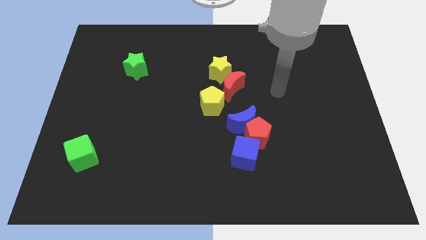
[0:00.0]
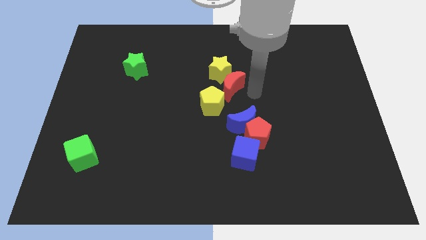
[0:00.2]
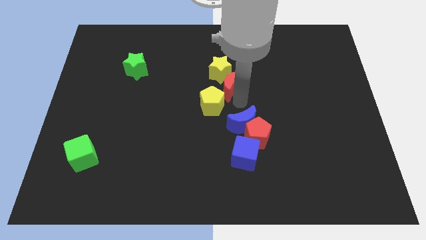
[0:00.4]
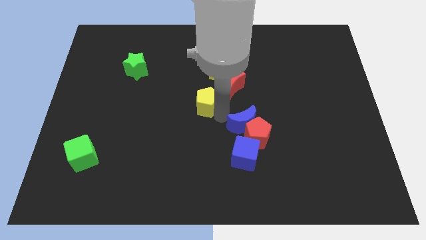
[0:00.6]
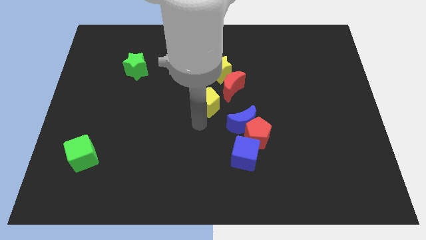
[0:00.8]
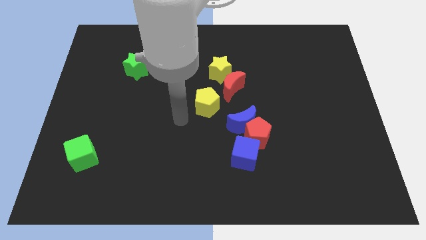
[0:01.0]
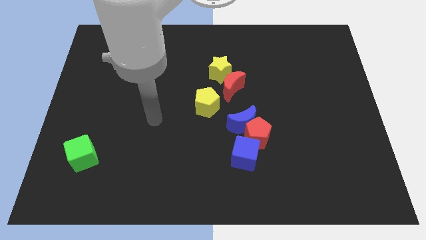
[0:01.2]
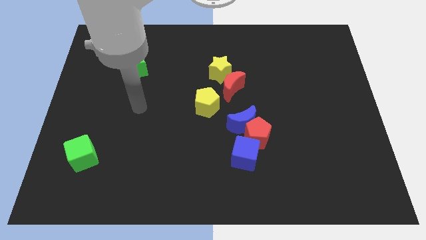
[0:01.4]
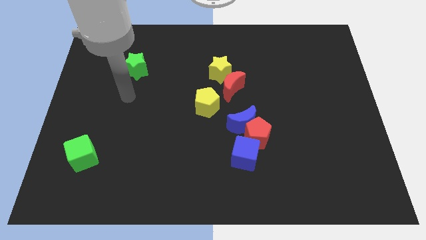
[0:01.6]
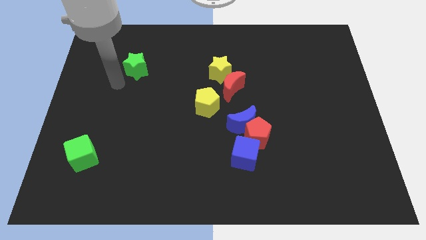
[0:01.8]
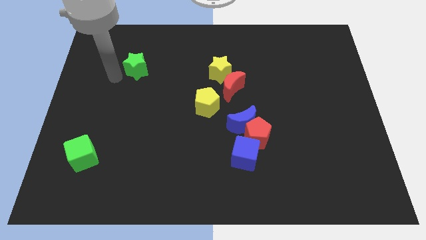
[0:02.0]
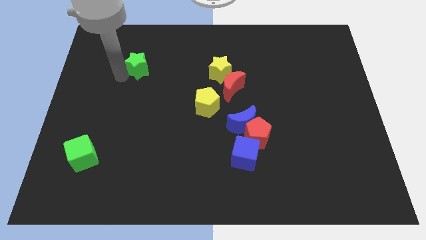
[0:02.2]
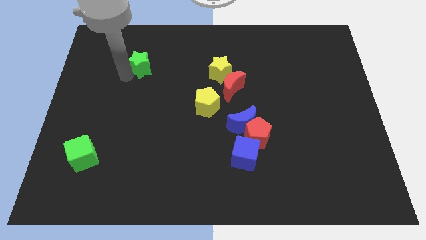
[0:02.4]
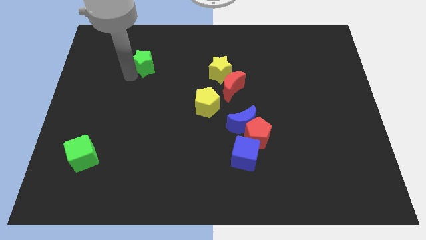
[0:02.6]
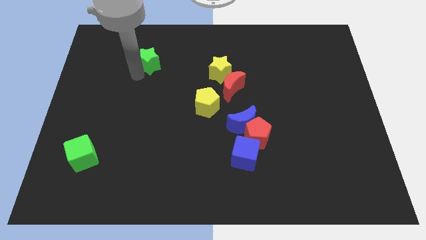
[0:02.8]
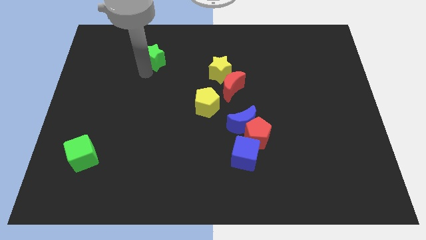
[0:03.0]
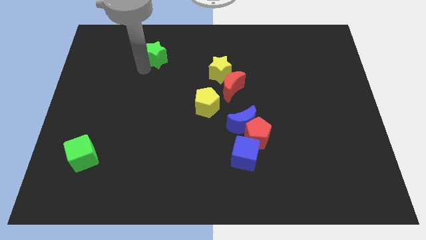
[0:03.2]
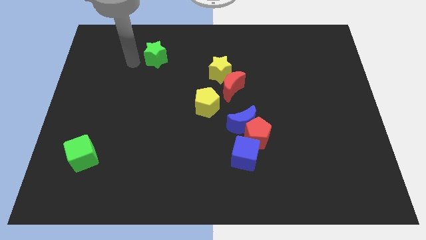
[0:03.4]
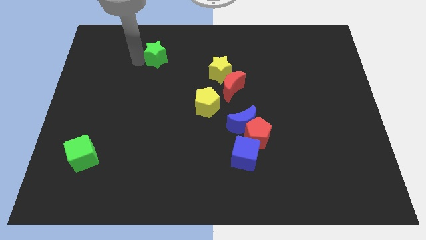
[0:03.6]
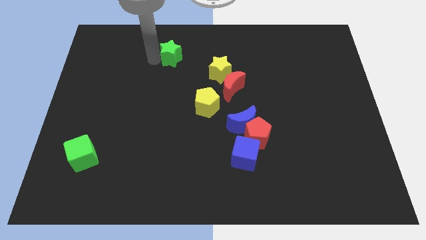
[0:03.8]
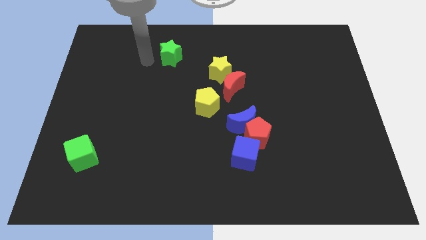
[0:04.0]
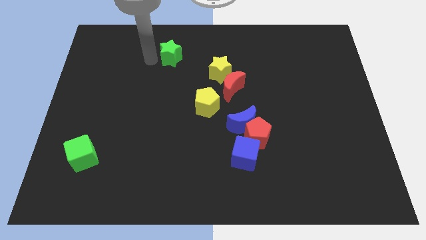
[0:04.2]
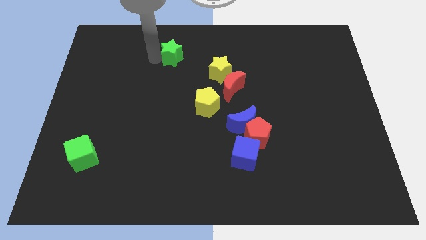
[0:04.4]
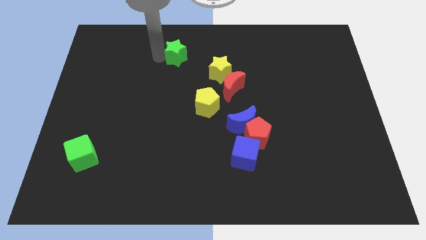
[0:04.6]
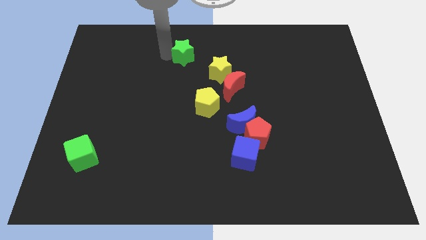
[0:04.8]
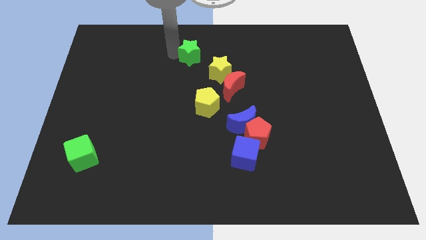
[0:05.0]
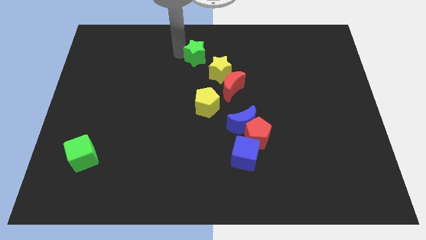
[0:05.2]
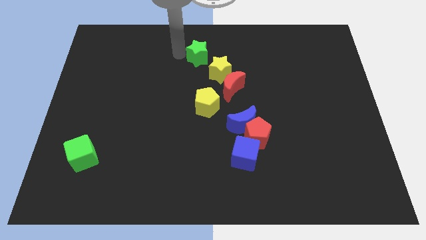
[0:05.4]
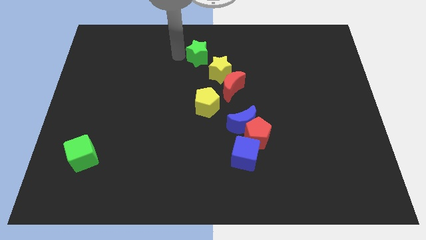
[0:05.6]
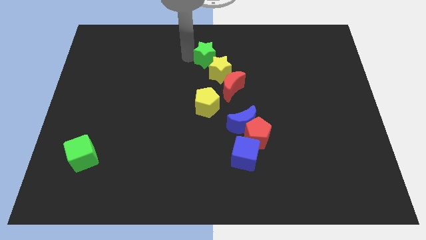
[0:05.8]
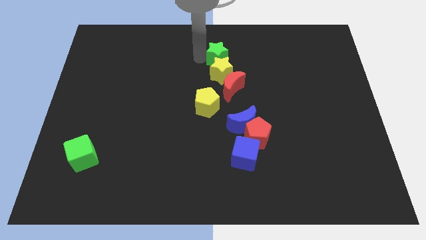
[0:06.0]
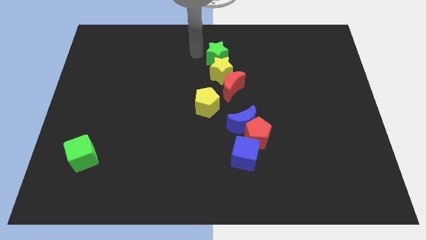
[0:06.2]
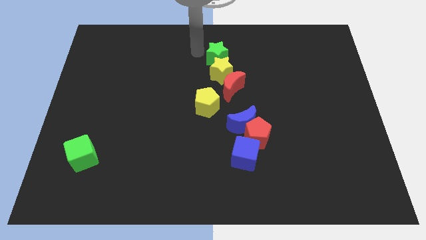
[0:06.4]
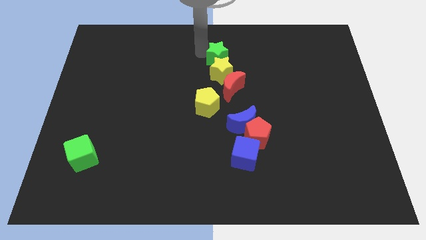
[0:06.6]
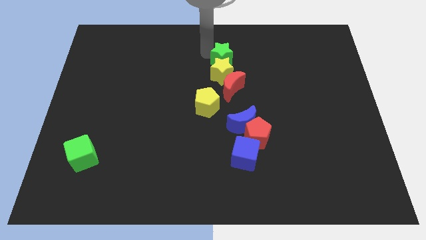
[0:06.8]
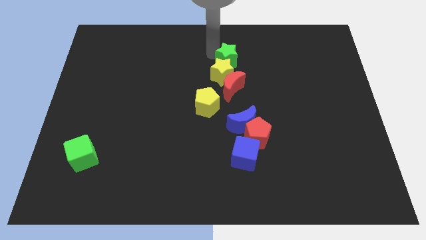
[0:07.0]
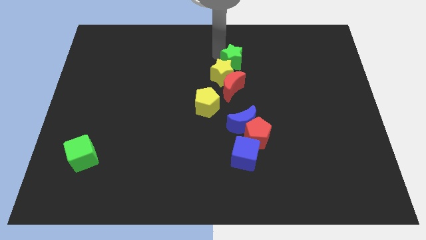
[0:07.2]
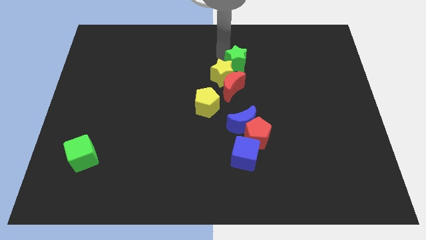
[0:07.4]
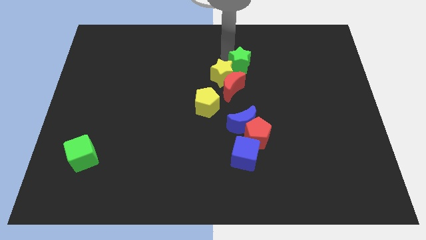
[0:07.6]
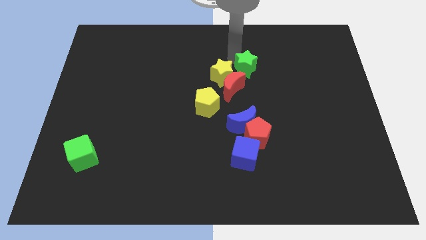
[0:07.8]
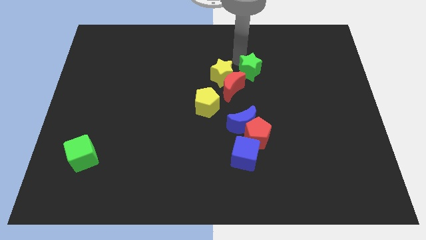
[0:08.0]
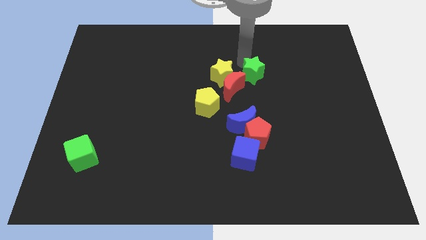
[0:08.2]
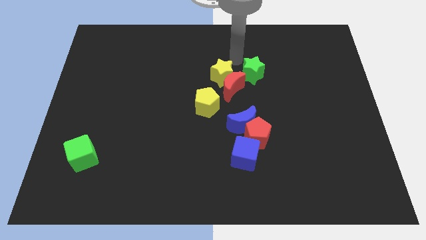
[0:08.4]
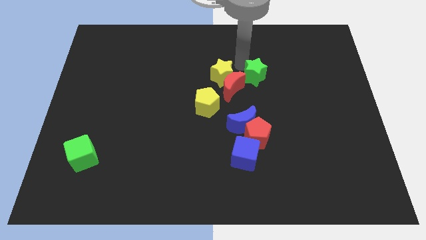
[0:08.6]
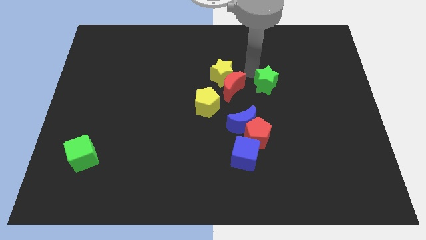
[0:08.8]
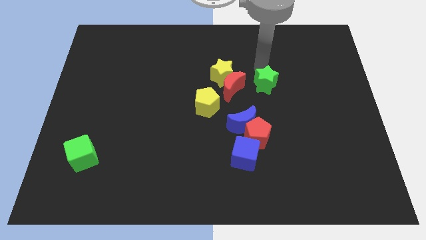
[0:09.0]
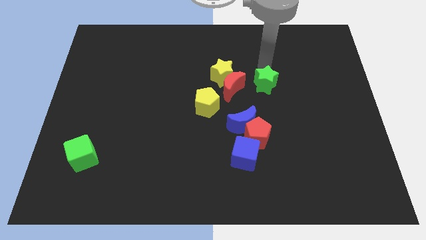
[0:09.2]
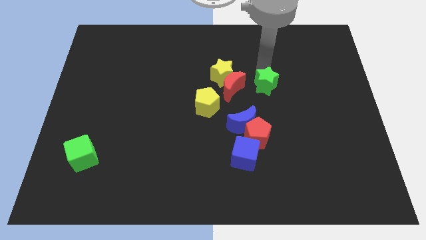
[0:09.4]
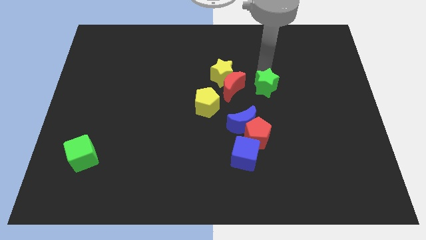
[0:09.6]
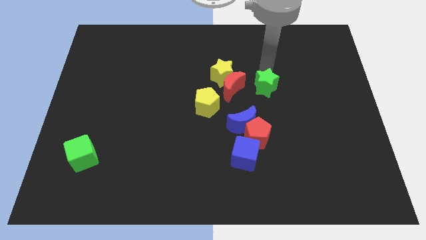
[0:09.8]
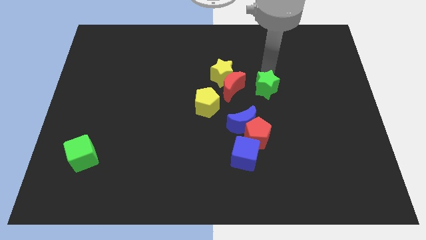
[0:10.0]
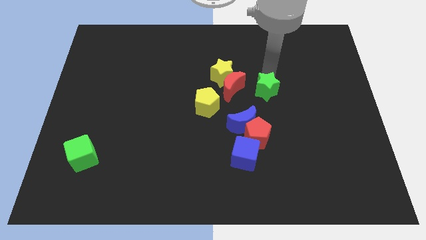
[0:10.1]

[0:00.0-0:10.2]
move the green star to the top right side of the blue moon

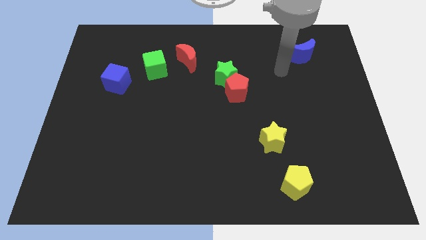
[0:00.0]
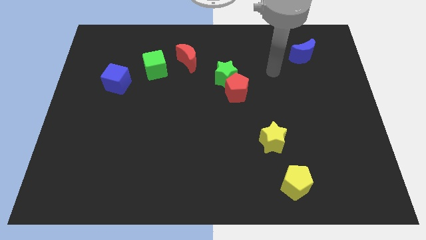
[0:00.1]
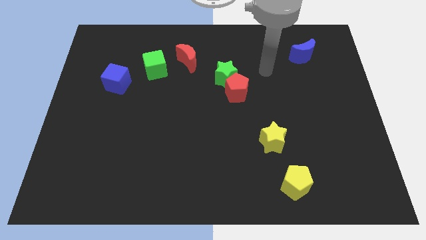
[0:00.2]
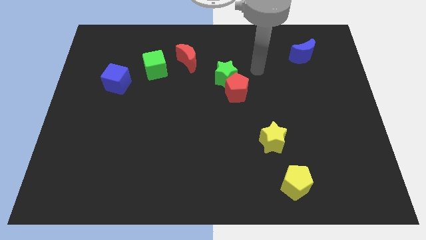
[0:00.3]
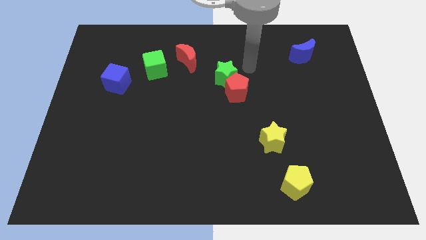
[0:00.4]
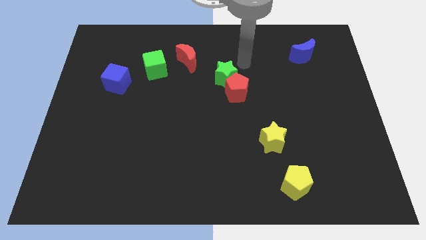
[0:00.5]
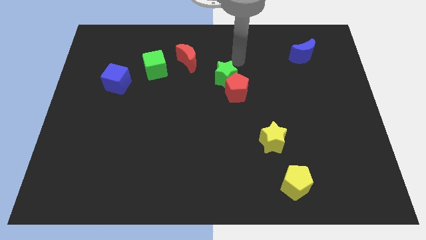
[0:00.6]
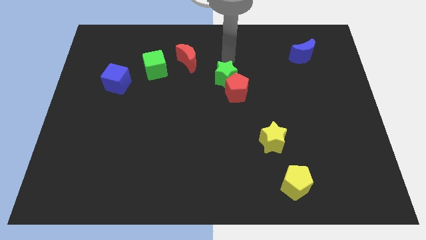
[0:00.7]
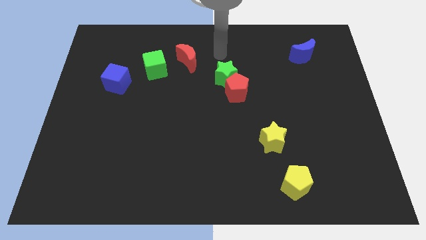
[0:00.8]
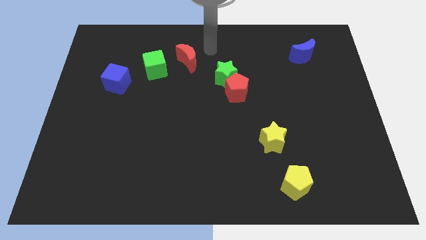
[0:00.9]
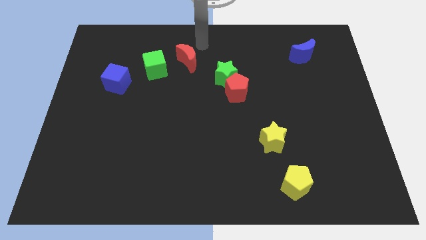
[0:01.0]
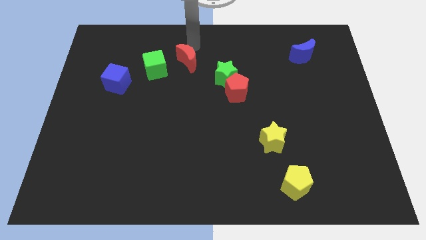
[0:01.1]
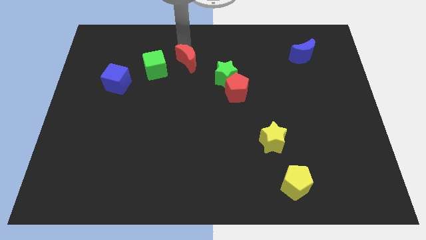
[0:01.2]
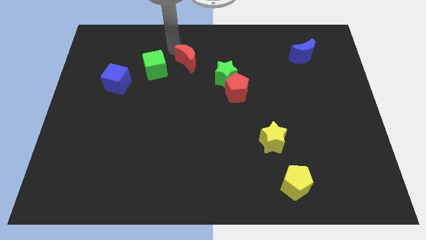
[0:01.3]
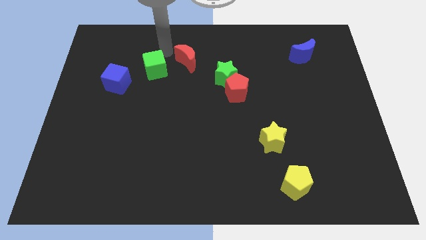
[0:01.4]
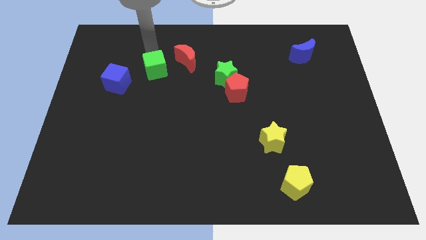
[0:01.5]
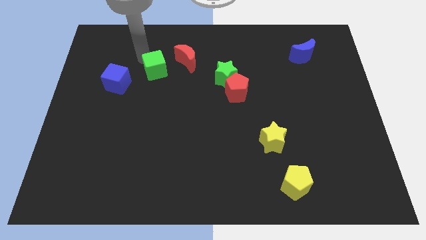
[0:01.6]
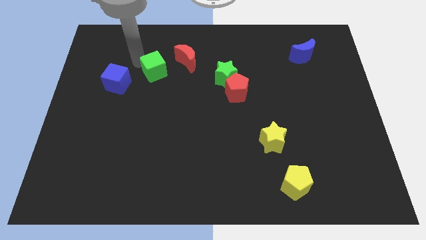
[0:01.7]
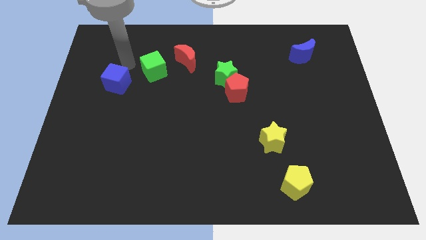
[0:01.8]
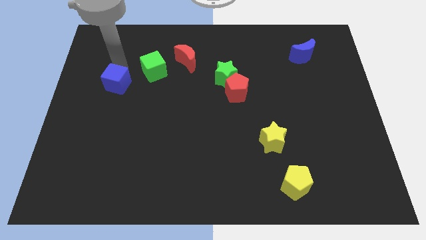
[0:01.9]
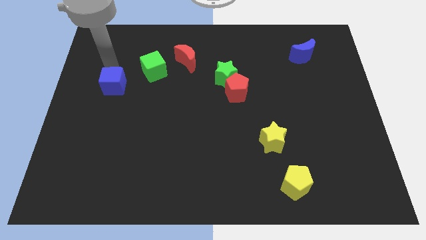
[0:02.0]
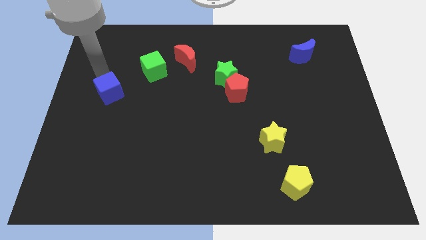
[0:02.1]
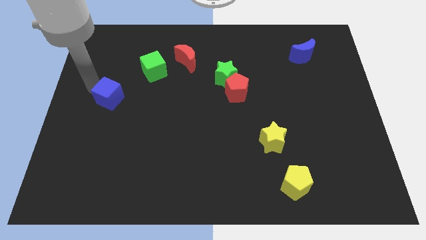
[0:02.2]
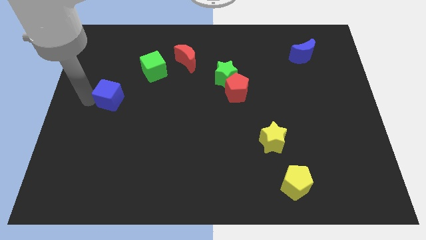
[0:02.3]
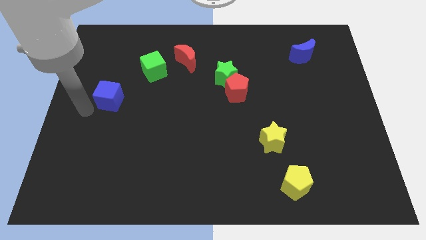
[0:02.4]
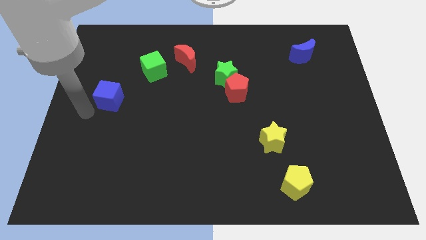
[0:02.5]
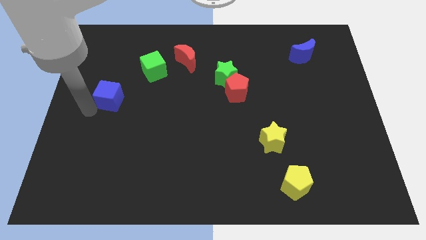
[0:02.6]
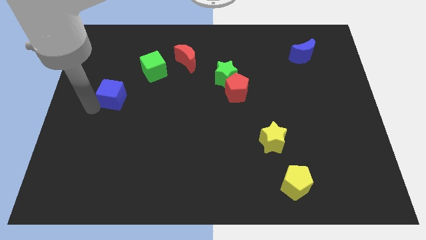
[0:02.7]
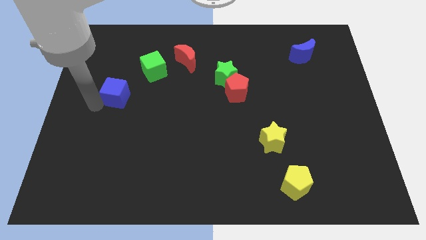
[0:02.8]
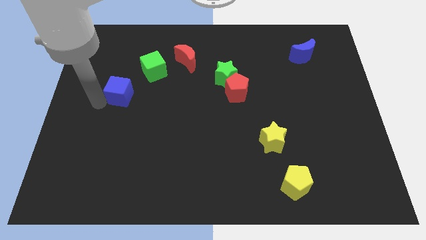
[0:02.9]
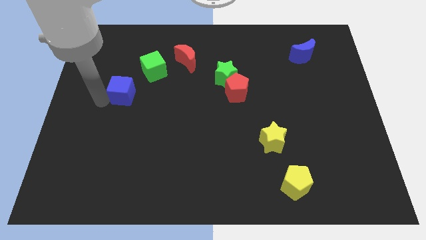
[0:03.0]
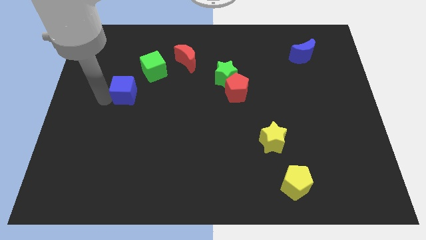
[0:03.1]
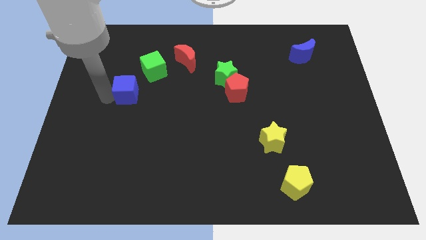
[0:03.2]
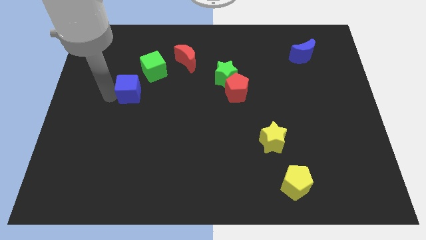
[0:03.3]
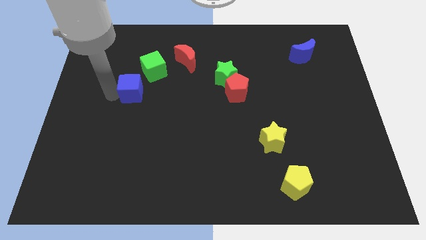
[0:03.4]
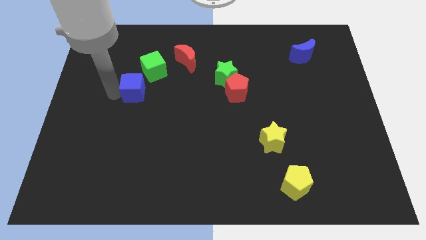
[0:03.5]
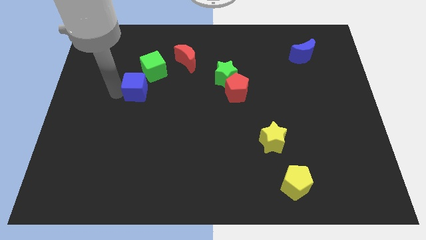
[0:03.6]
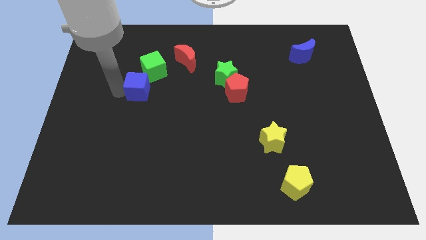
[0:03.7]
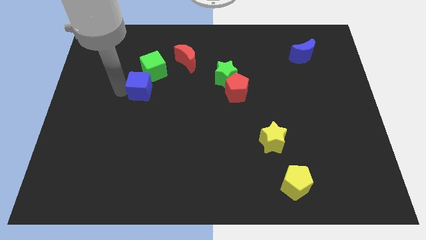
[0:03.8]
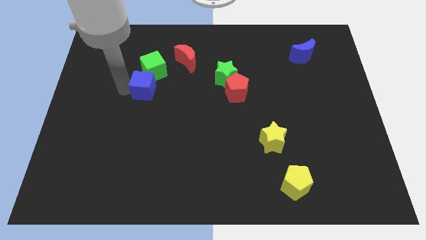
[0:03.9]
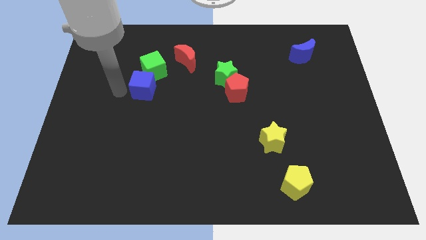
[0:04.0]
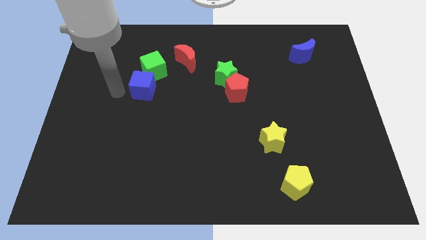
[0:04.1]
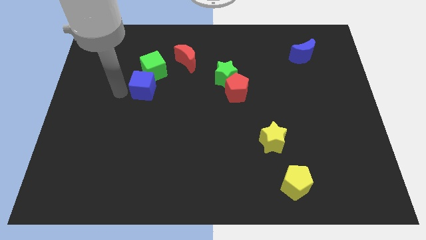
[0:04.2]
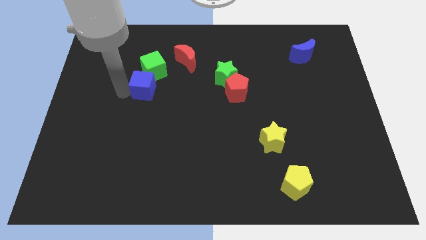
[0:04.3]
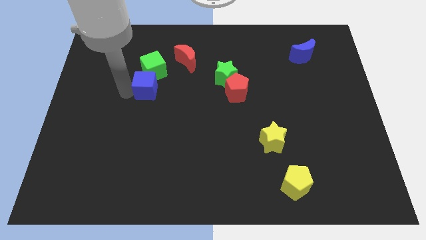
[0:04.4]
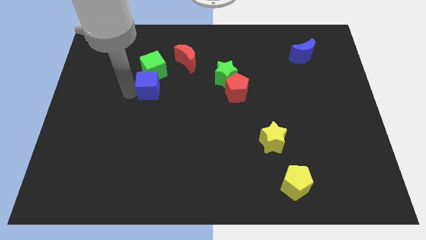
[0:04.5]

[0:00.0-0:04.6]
push the blue cube diagonally down and to the right of the green cube
